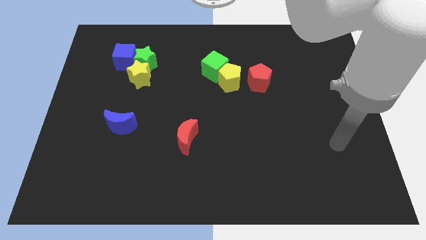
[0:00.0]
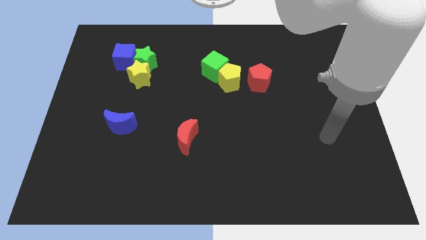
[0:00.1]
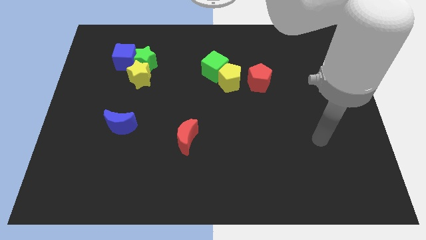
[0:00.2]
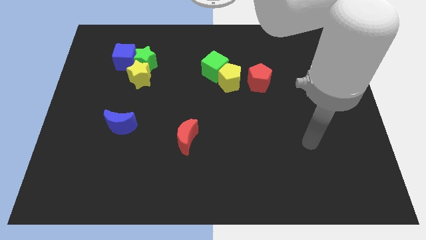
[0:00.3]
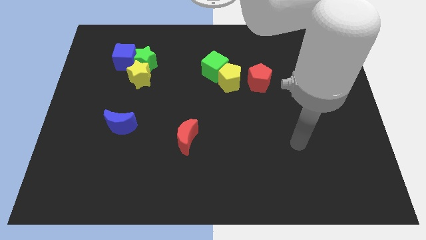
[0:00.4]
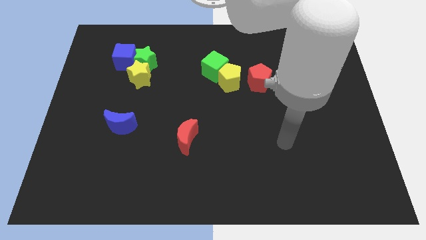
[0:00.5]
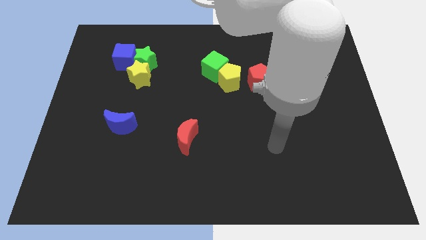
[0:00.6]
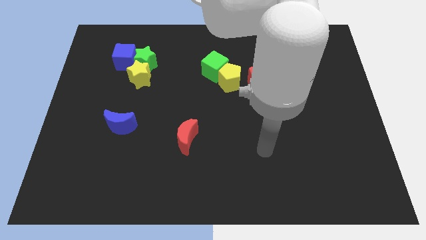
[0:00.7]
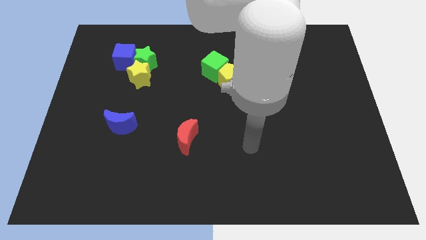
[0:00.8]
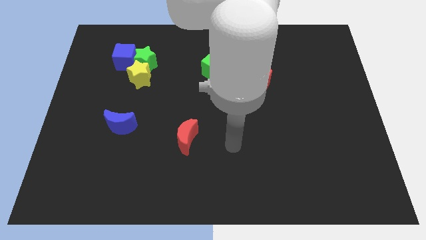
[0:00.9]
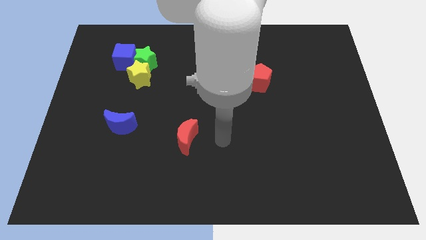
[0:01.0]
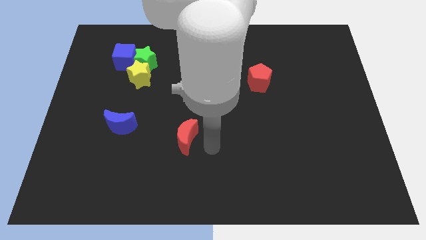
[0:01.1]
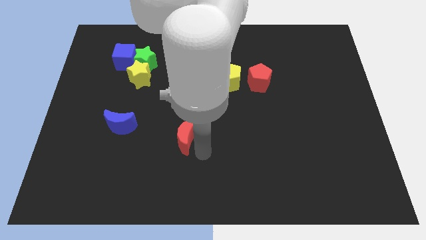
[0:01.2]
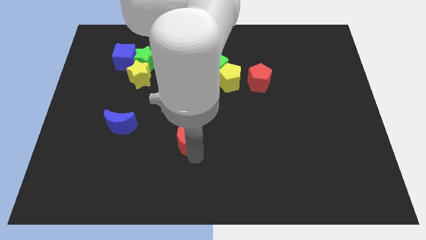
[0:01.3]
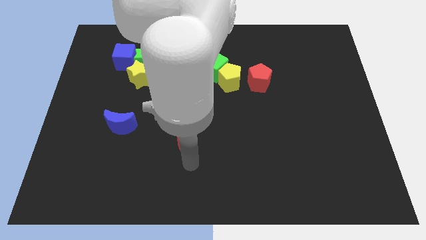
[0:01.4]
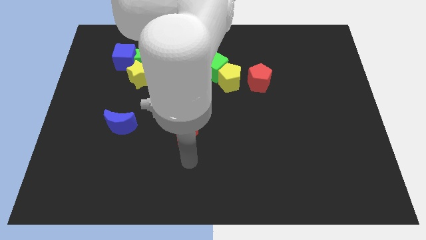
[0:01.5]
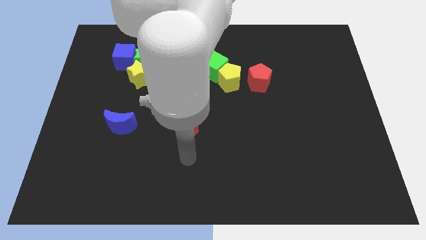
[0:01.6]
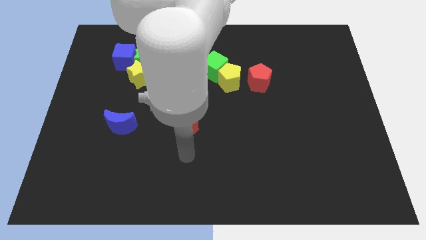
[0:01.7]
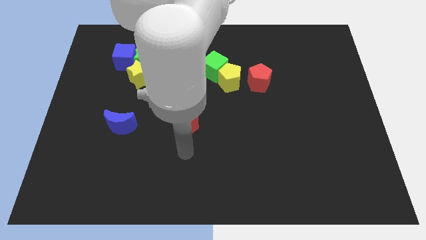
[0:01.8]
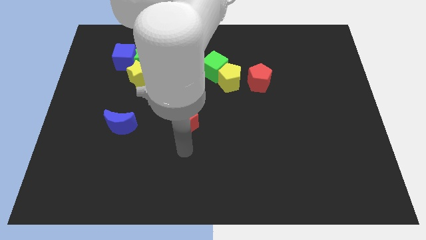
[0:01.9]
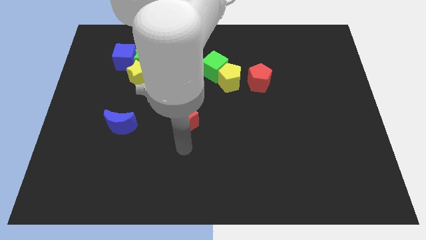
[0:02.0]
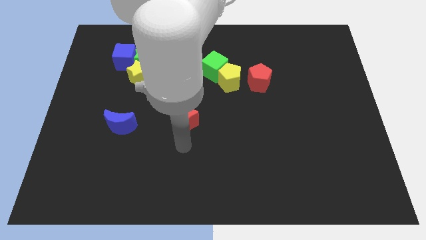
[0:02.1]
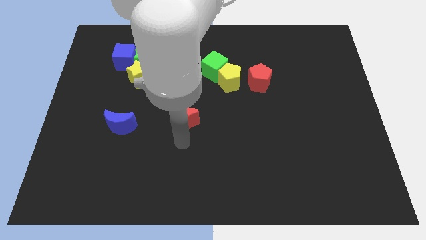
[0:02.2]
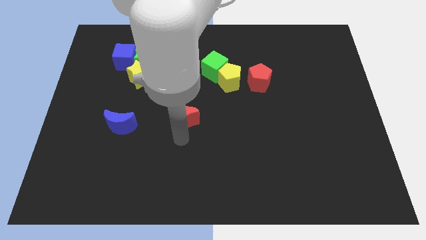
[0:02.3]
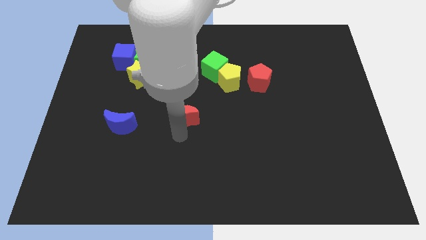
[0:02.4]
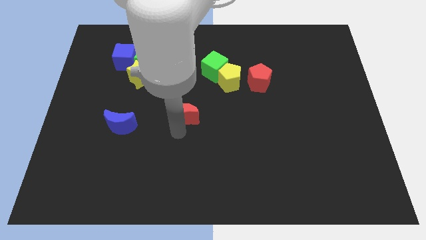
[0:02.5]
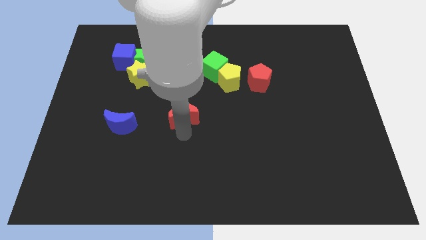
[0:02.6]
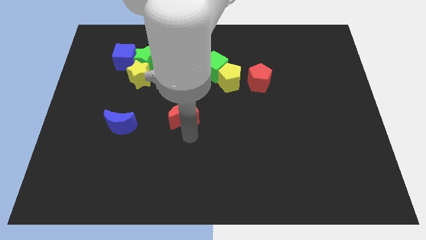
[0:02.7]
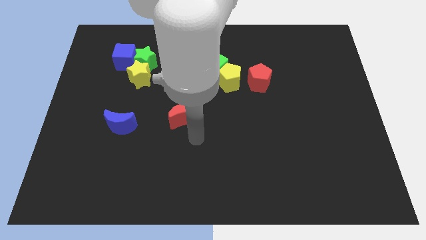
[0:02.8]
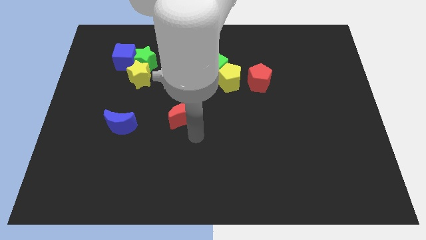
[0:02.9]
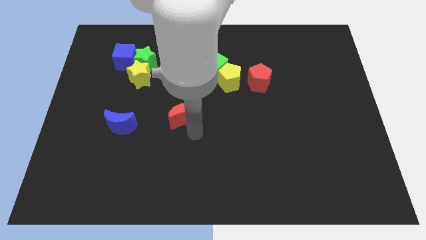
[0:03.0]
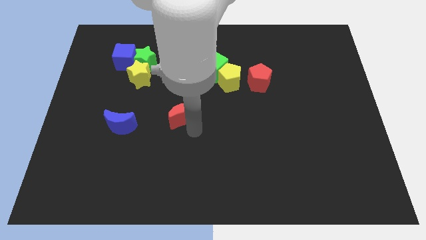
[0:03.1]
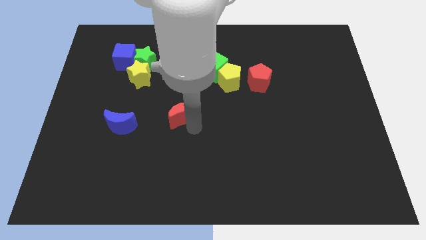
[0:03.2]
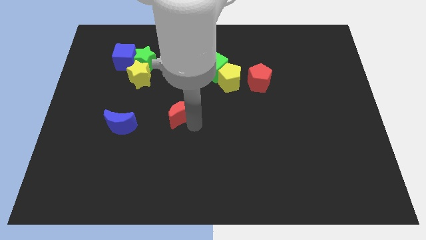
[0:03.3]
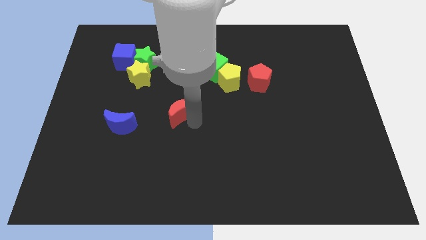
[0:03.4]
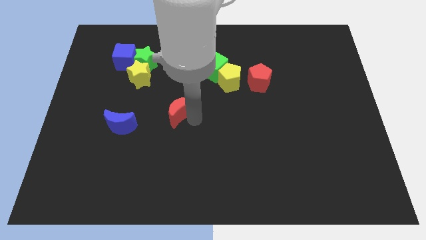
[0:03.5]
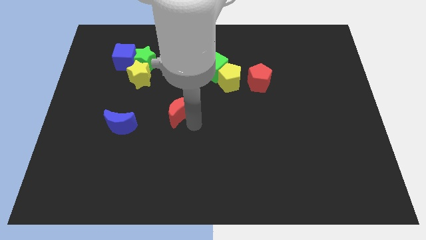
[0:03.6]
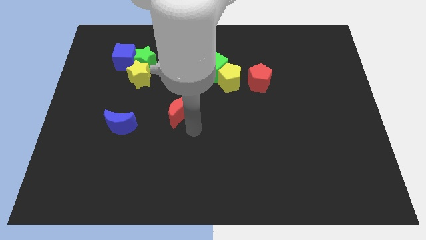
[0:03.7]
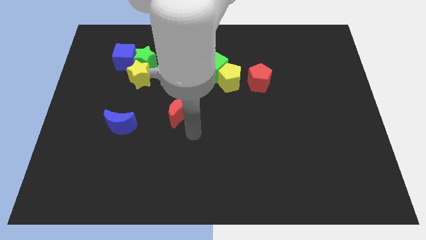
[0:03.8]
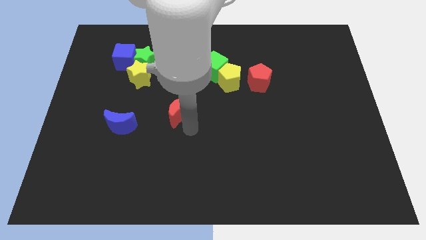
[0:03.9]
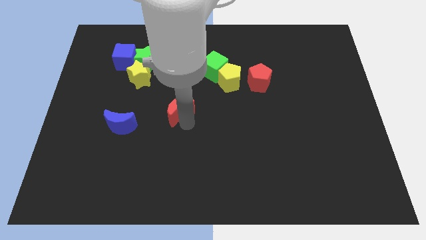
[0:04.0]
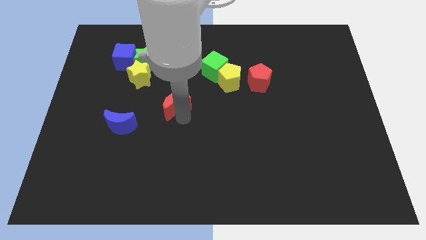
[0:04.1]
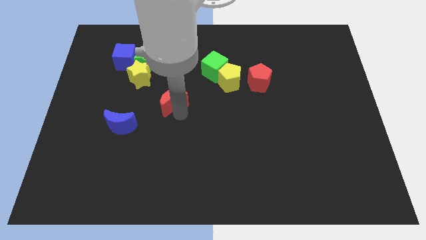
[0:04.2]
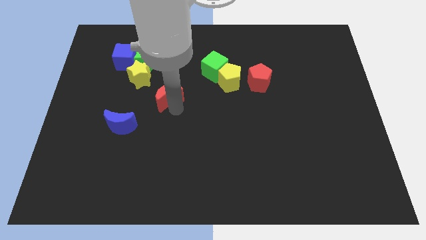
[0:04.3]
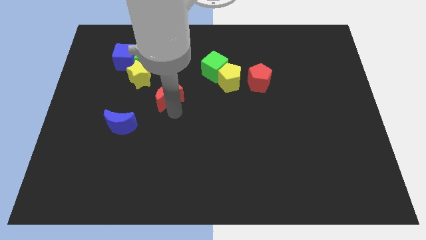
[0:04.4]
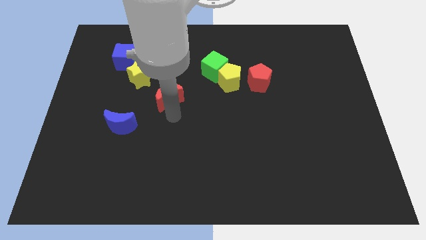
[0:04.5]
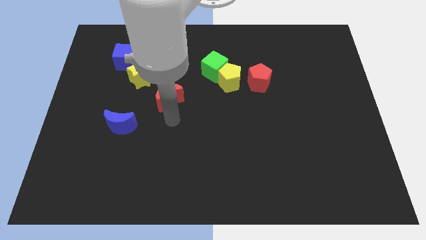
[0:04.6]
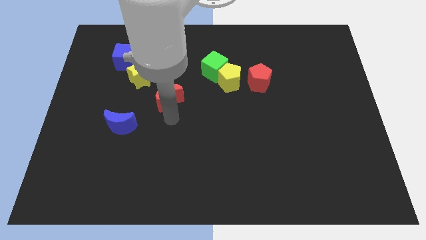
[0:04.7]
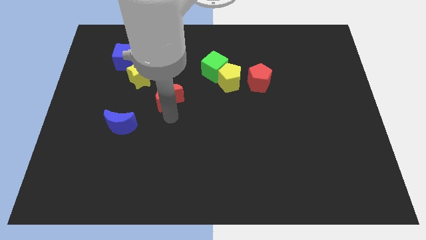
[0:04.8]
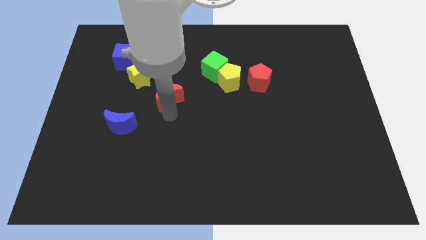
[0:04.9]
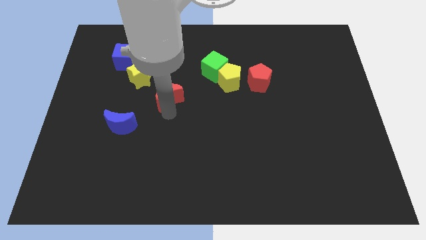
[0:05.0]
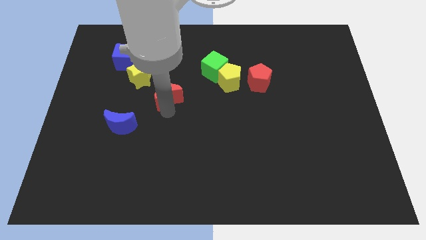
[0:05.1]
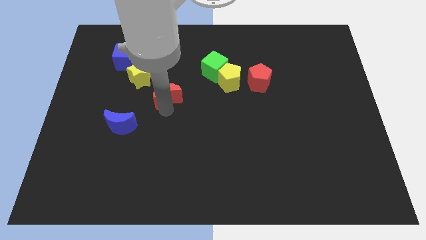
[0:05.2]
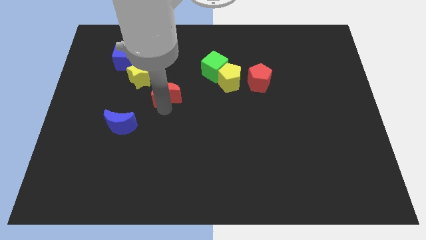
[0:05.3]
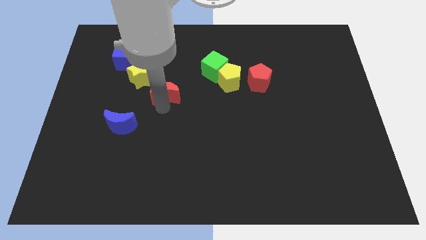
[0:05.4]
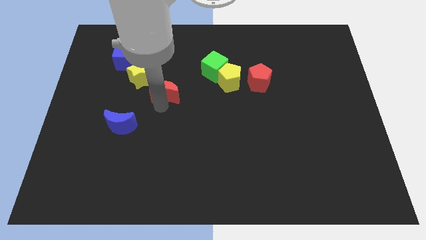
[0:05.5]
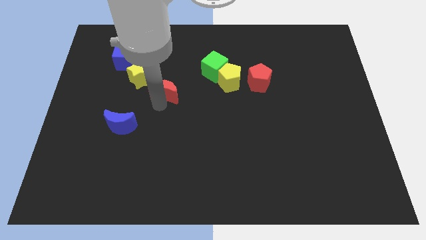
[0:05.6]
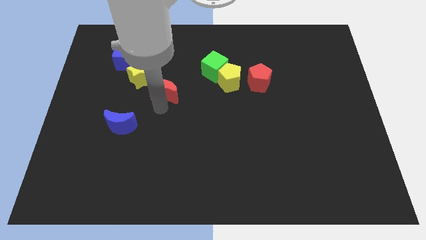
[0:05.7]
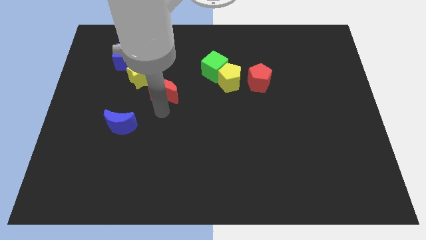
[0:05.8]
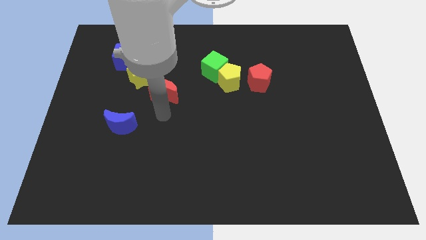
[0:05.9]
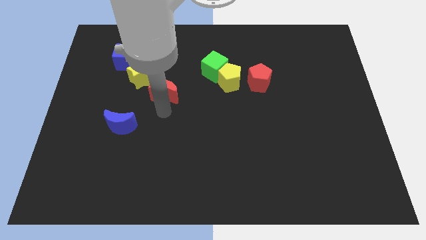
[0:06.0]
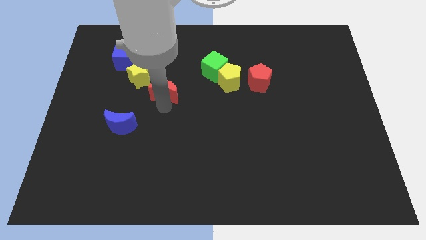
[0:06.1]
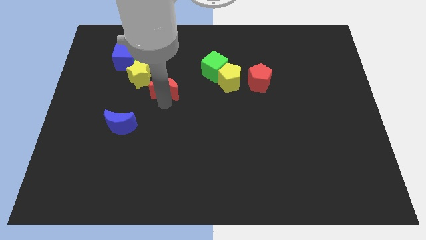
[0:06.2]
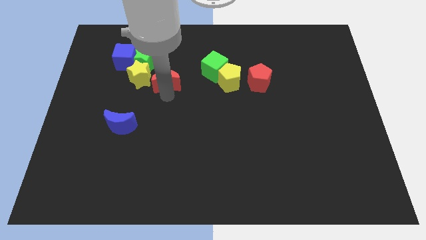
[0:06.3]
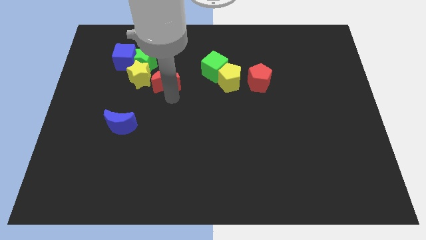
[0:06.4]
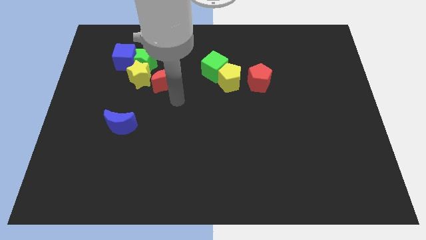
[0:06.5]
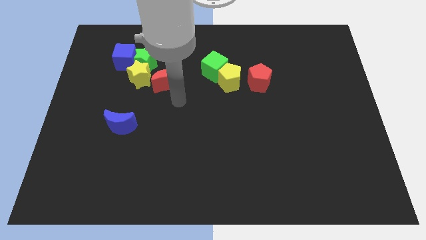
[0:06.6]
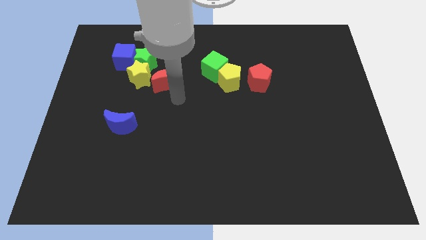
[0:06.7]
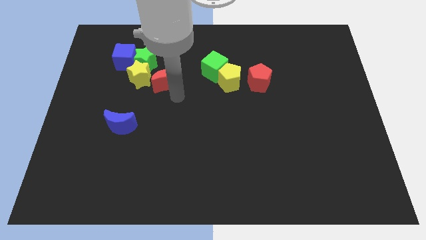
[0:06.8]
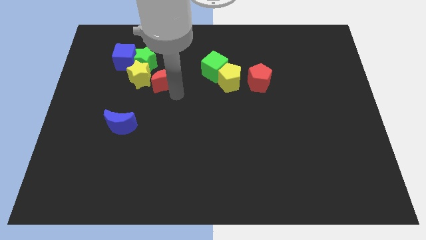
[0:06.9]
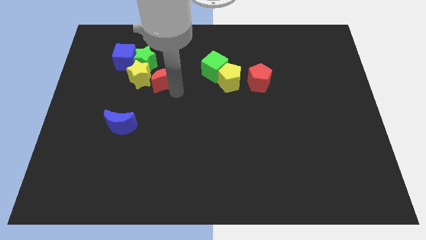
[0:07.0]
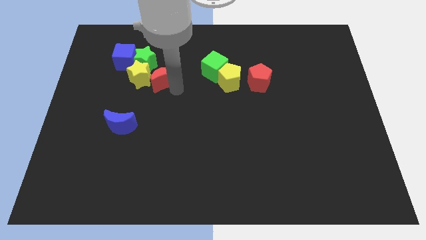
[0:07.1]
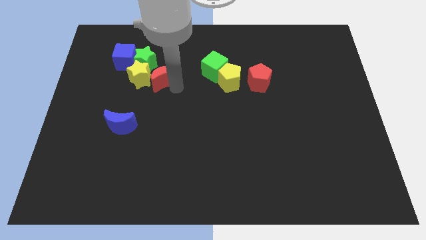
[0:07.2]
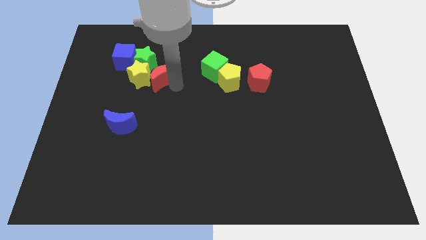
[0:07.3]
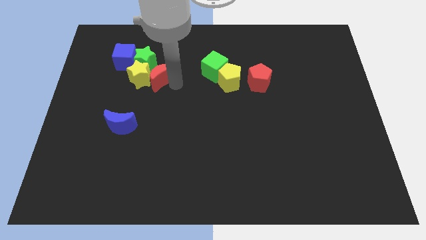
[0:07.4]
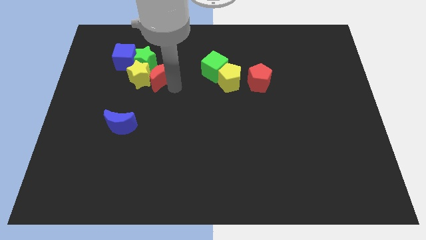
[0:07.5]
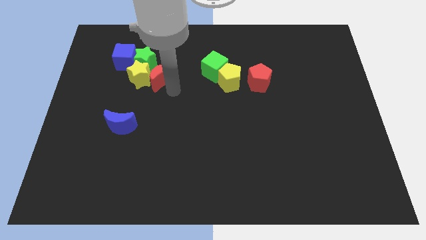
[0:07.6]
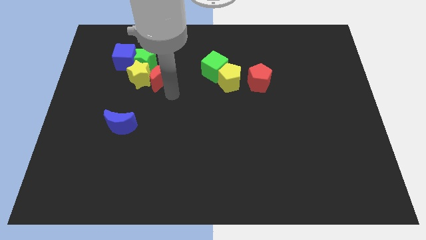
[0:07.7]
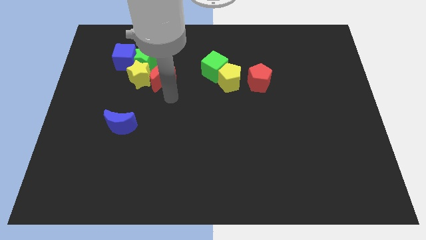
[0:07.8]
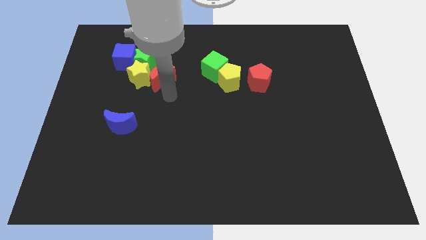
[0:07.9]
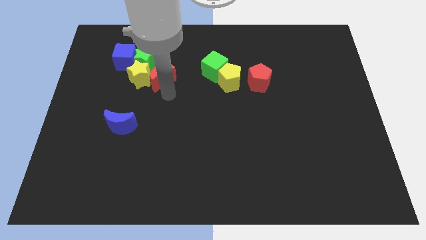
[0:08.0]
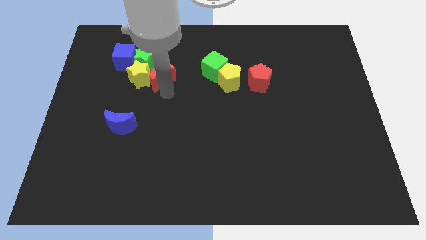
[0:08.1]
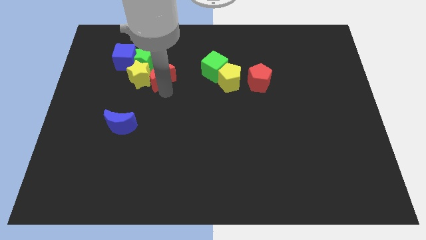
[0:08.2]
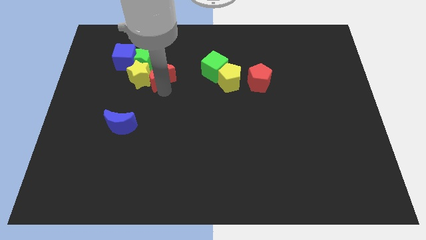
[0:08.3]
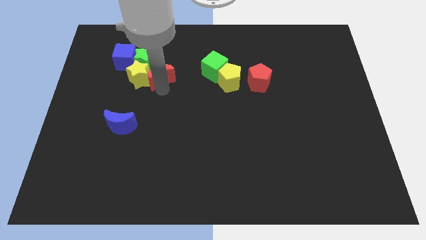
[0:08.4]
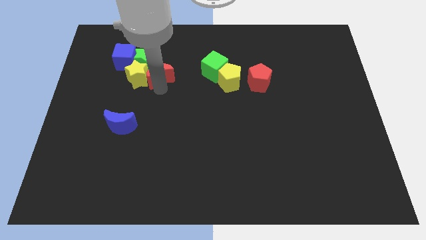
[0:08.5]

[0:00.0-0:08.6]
push the red moon to the green star
